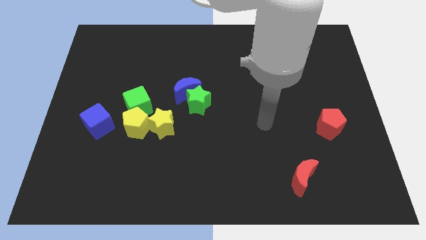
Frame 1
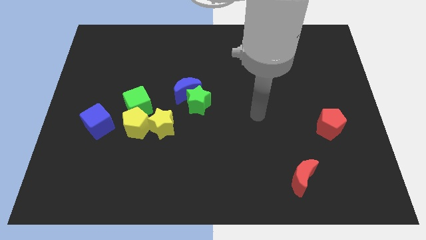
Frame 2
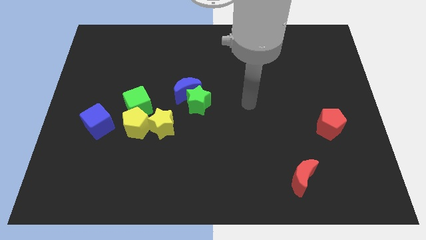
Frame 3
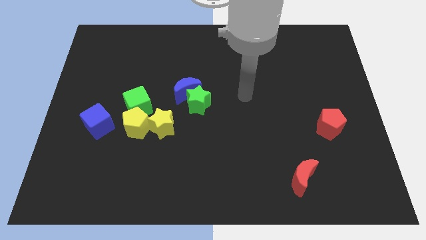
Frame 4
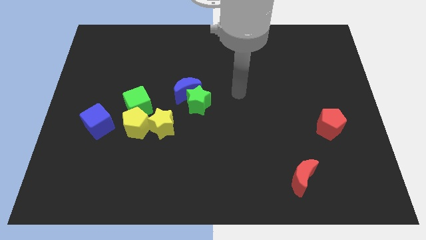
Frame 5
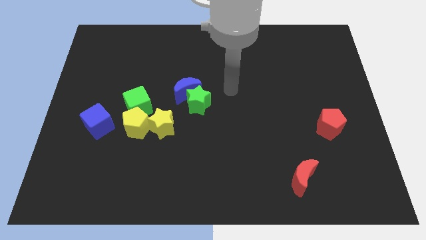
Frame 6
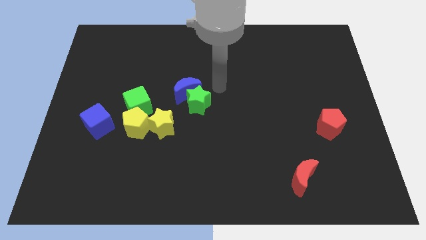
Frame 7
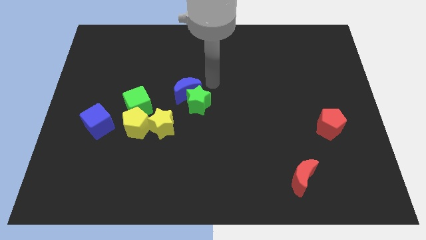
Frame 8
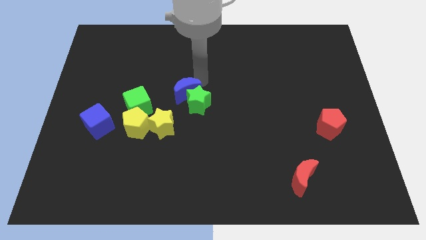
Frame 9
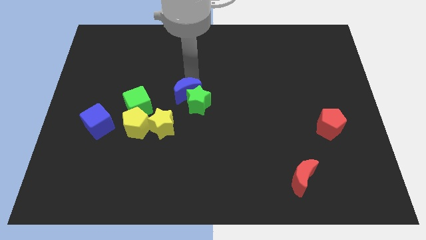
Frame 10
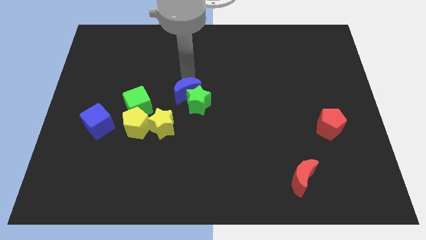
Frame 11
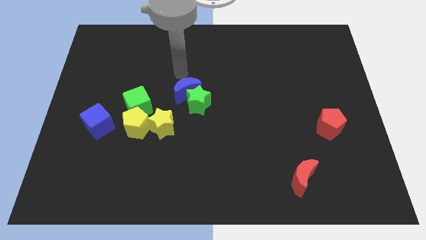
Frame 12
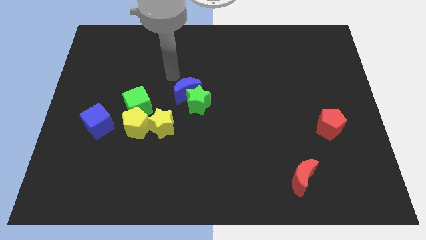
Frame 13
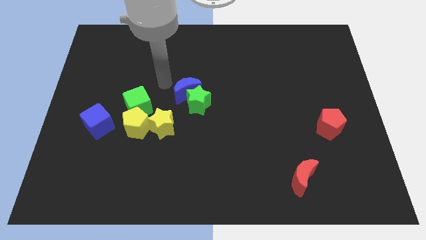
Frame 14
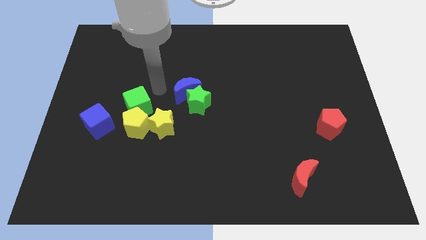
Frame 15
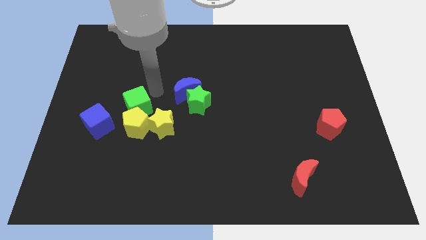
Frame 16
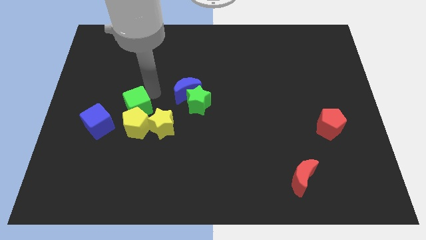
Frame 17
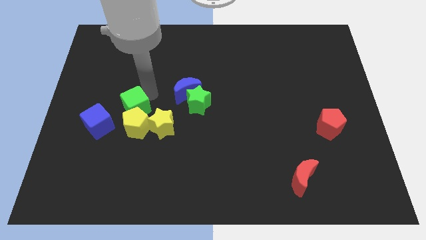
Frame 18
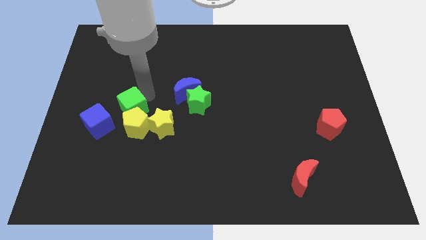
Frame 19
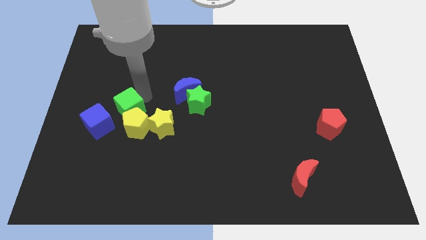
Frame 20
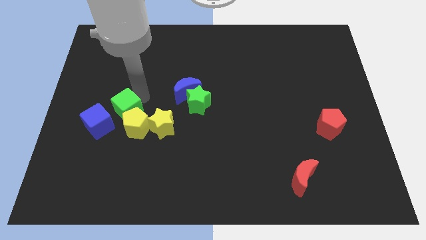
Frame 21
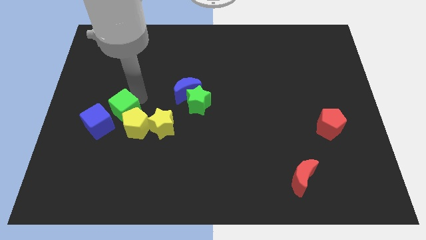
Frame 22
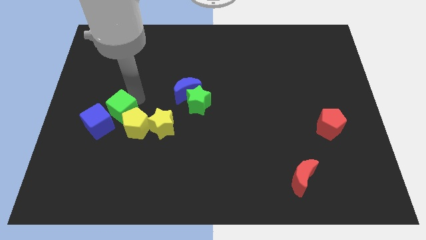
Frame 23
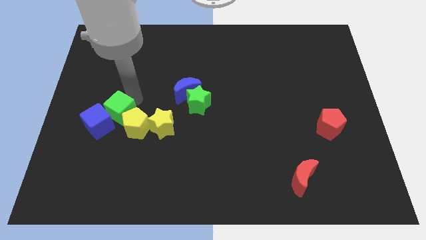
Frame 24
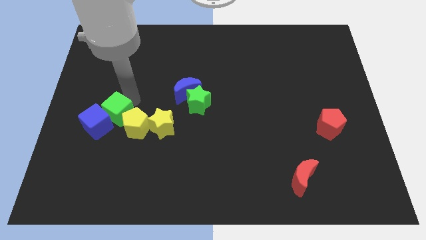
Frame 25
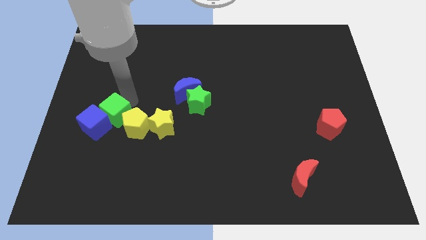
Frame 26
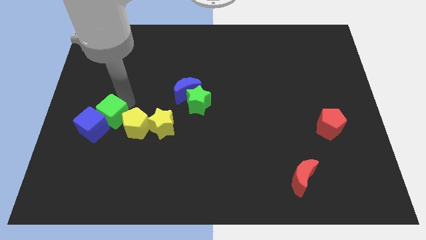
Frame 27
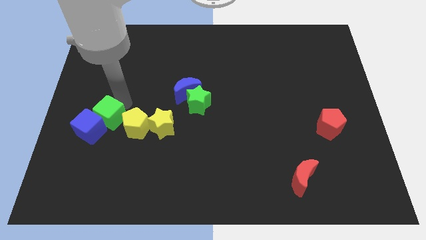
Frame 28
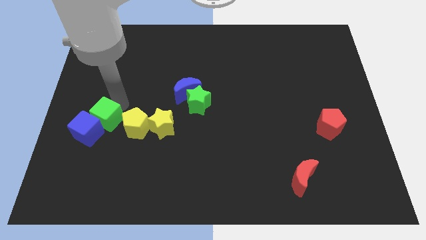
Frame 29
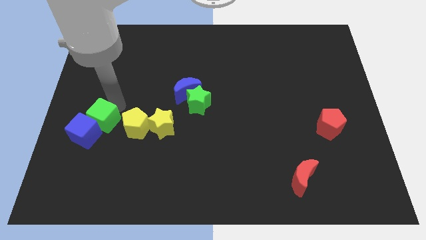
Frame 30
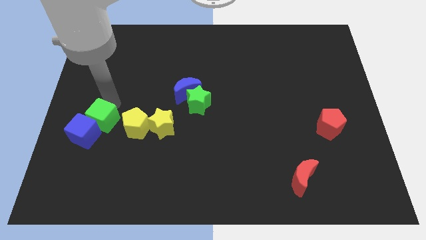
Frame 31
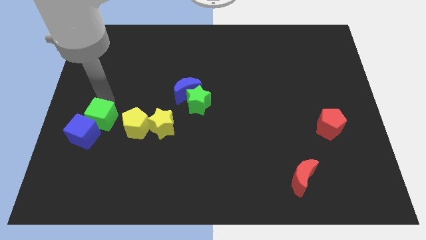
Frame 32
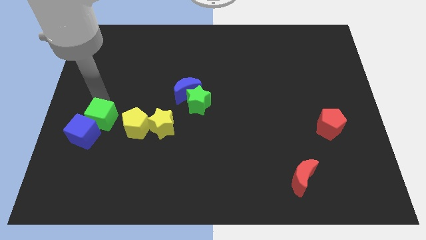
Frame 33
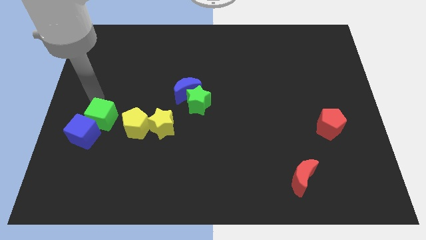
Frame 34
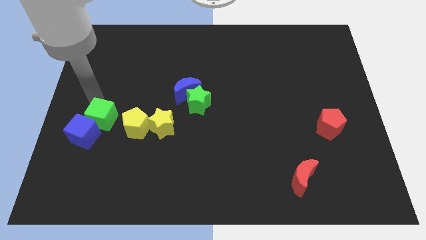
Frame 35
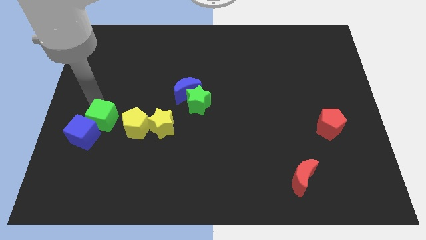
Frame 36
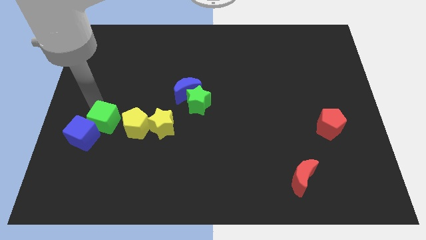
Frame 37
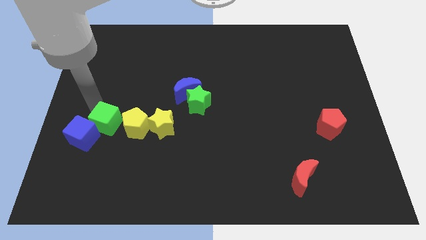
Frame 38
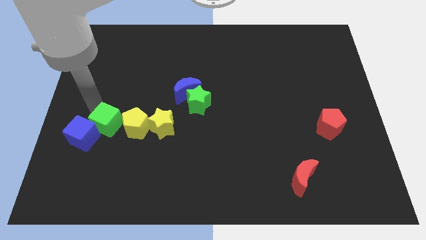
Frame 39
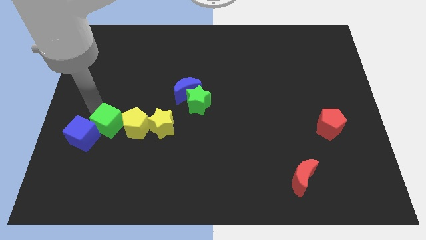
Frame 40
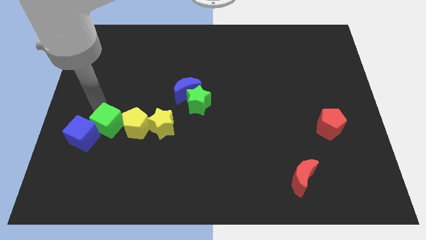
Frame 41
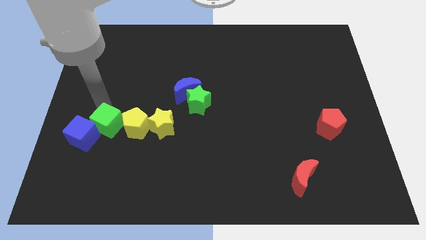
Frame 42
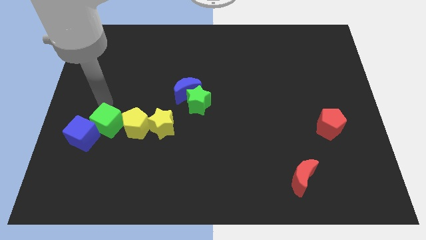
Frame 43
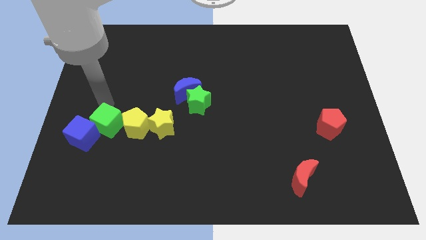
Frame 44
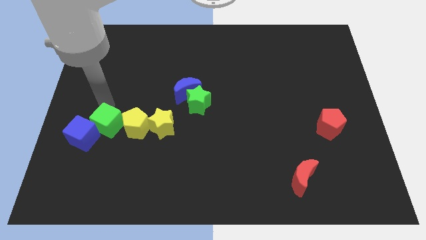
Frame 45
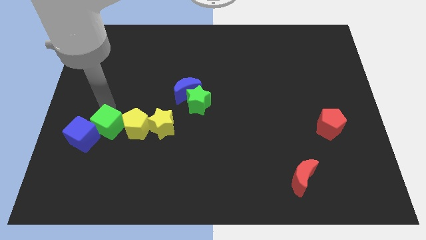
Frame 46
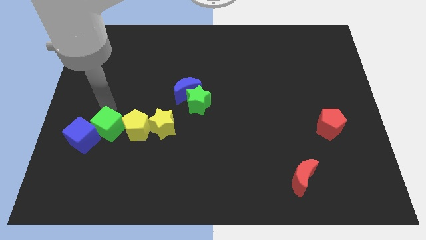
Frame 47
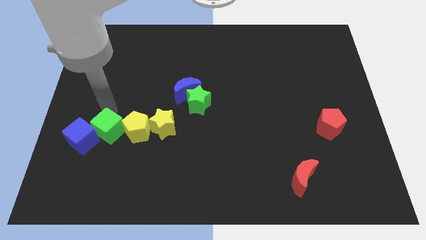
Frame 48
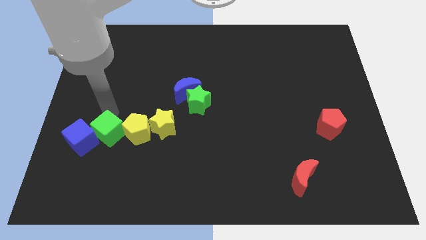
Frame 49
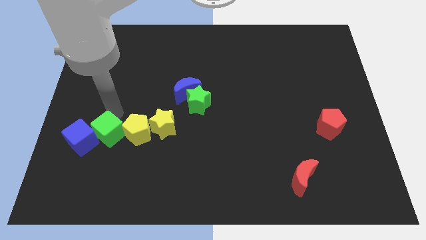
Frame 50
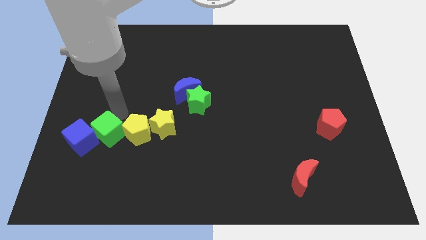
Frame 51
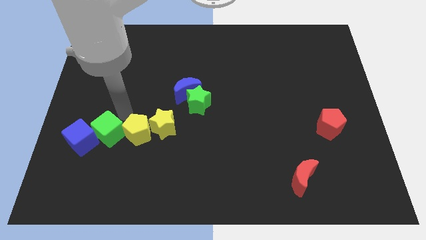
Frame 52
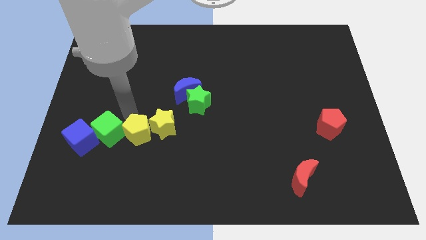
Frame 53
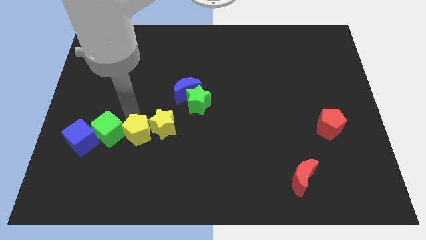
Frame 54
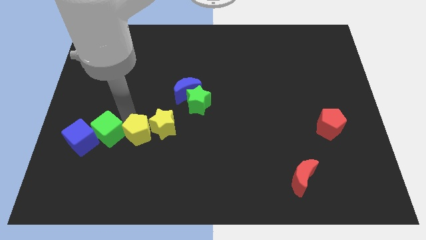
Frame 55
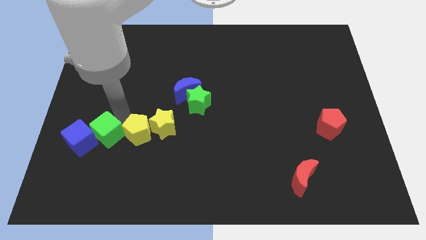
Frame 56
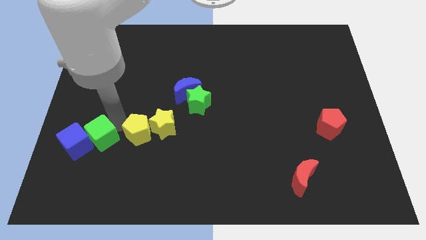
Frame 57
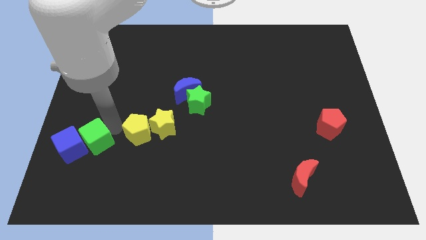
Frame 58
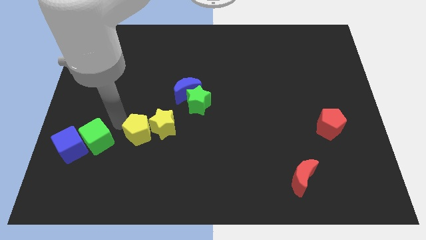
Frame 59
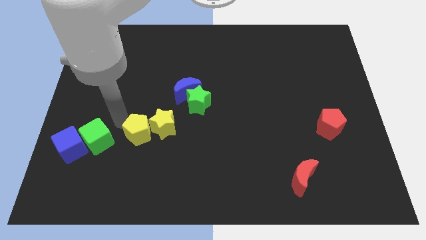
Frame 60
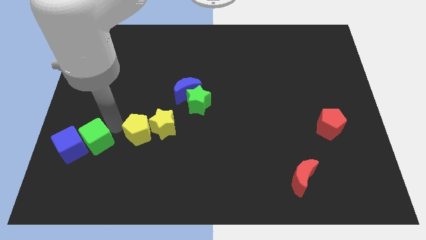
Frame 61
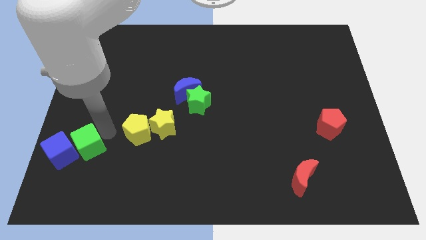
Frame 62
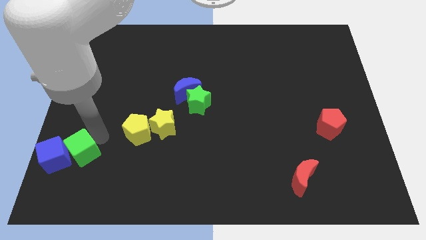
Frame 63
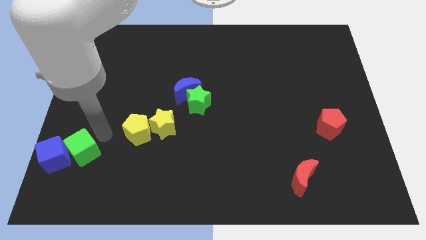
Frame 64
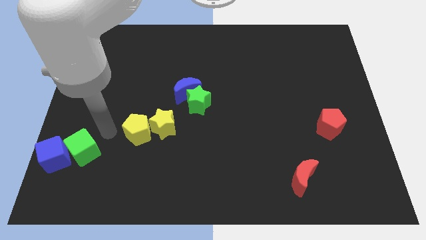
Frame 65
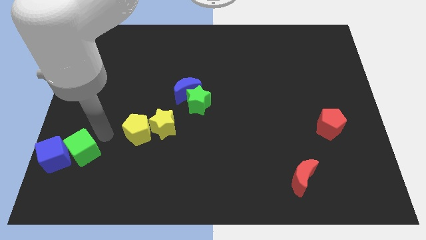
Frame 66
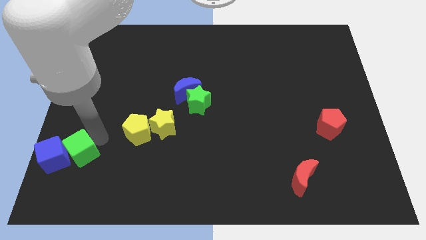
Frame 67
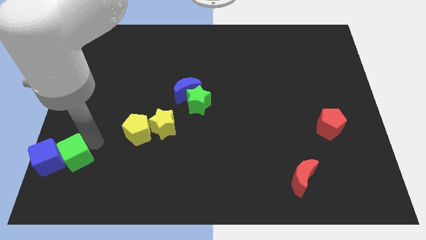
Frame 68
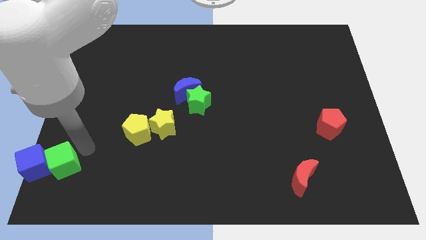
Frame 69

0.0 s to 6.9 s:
put the green cube to the bottom left of the board
